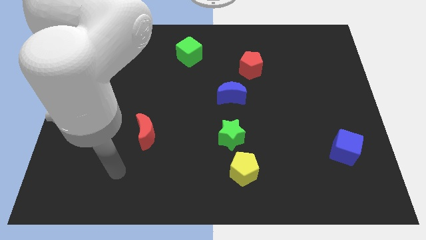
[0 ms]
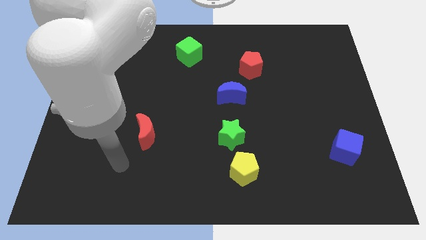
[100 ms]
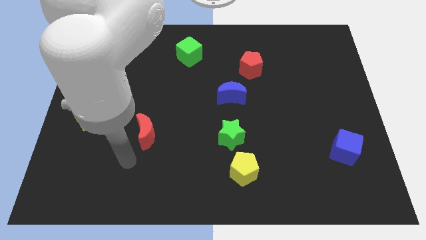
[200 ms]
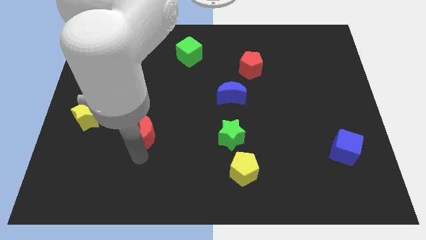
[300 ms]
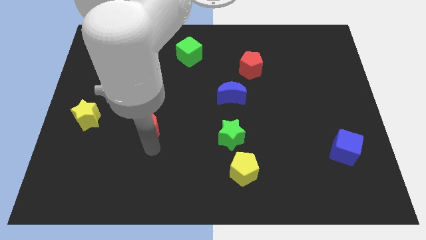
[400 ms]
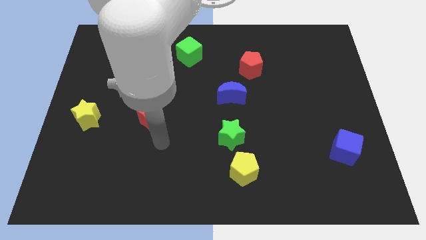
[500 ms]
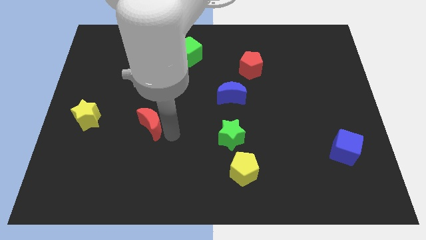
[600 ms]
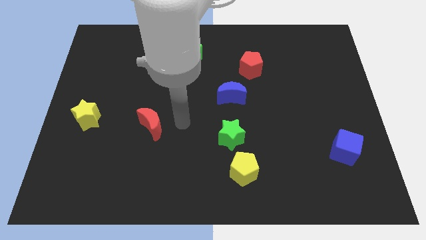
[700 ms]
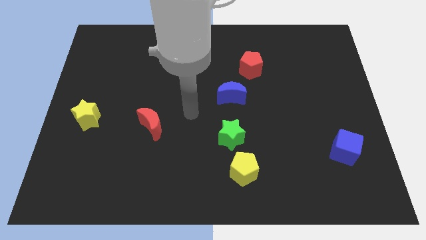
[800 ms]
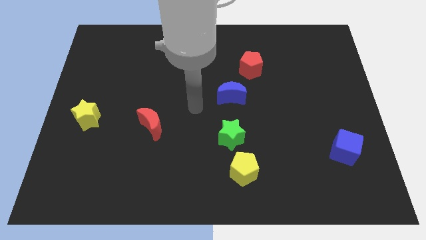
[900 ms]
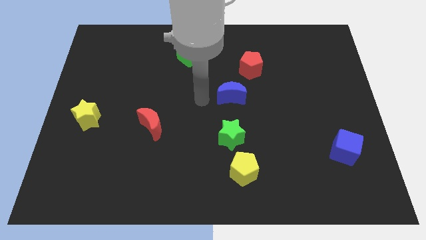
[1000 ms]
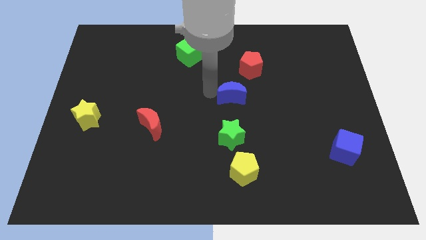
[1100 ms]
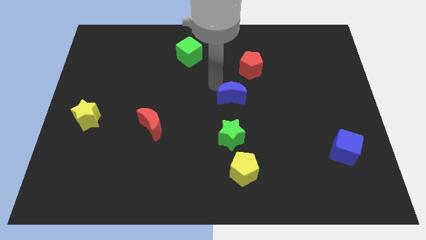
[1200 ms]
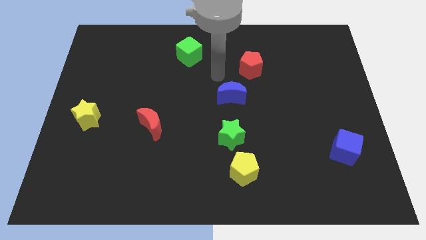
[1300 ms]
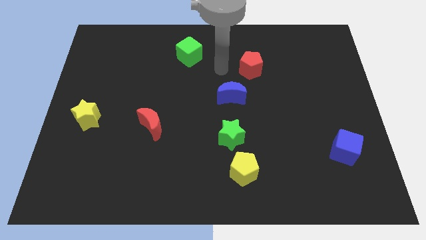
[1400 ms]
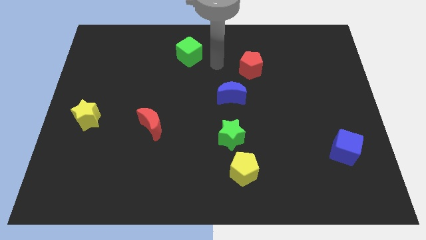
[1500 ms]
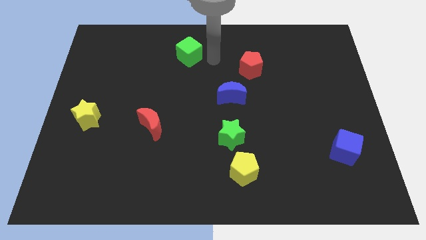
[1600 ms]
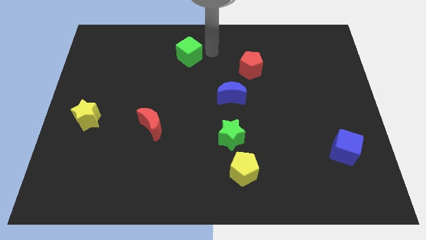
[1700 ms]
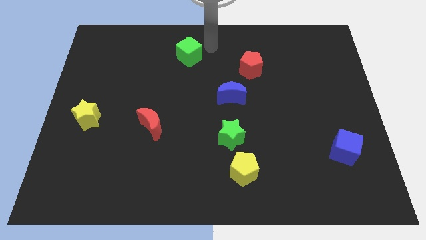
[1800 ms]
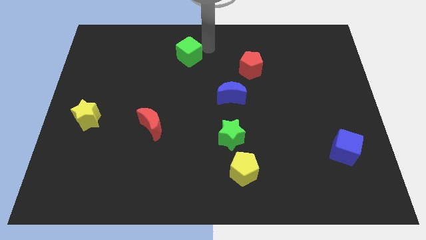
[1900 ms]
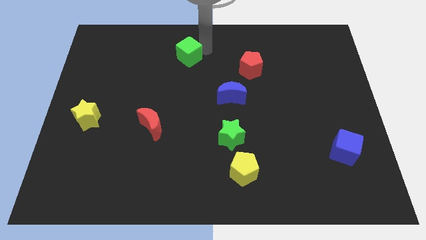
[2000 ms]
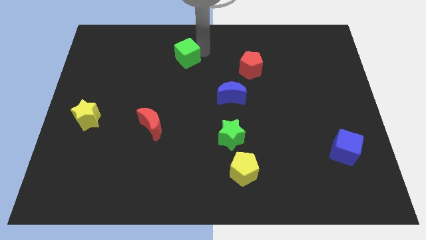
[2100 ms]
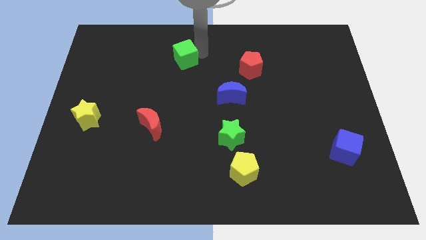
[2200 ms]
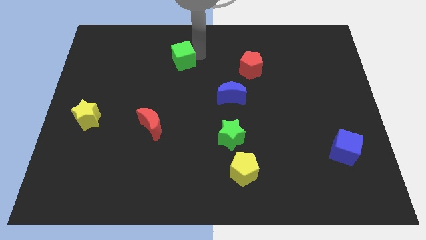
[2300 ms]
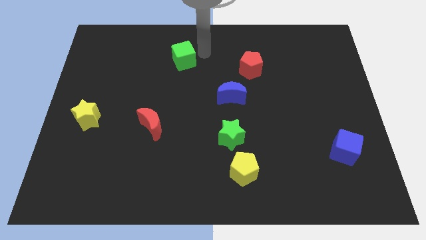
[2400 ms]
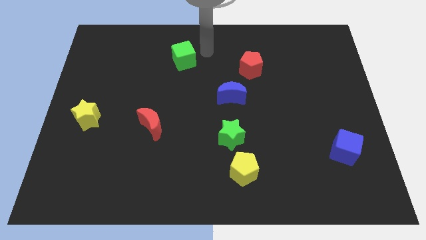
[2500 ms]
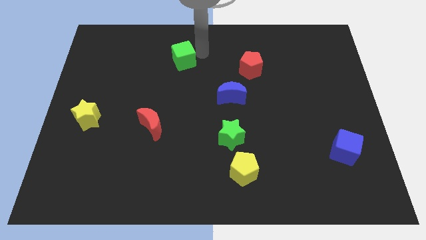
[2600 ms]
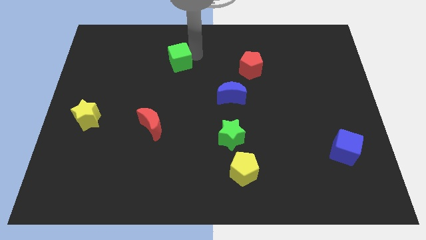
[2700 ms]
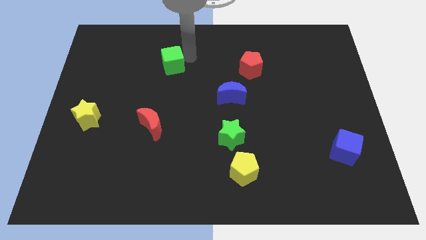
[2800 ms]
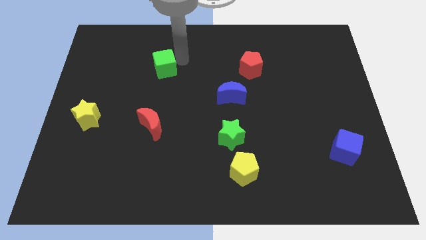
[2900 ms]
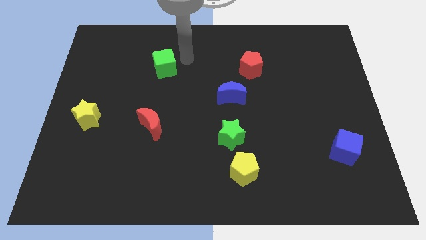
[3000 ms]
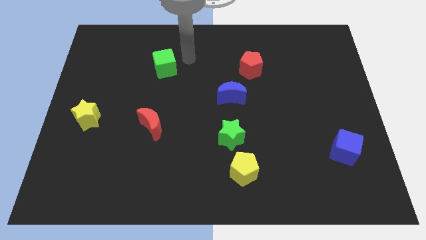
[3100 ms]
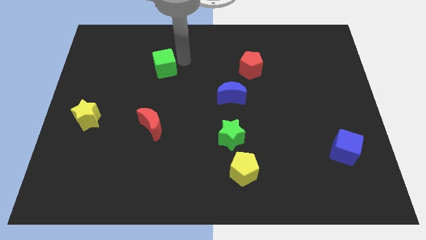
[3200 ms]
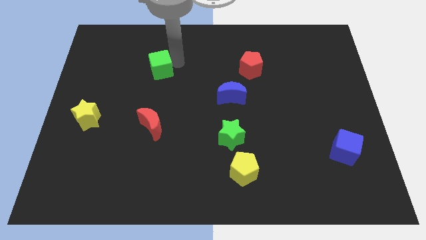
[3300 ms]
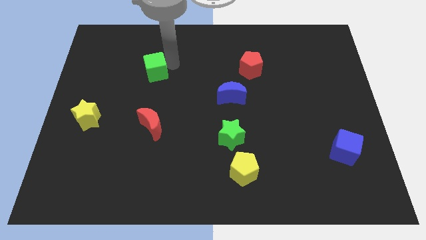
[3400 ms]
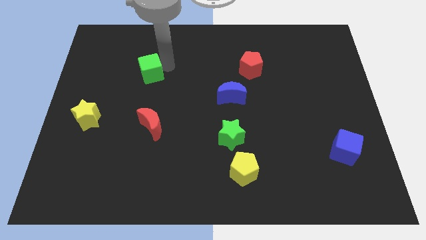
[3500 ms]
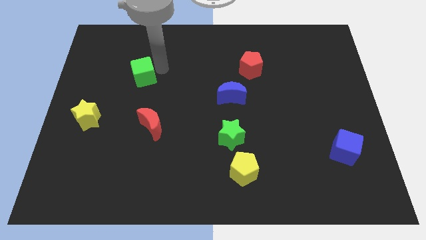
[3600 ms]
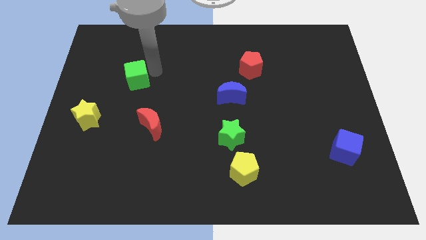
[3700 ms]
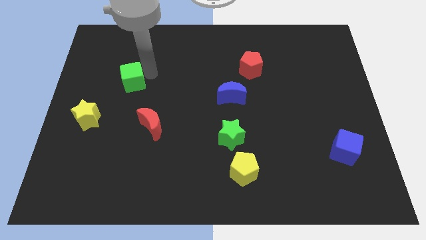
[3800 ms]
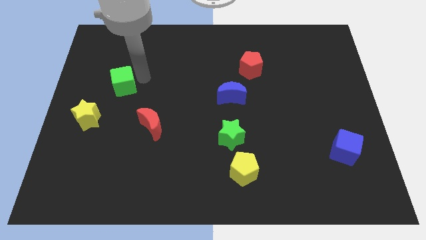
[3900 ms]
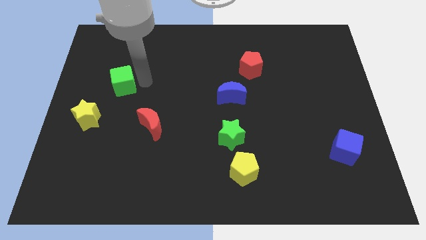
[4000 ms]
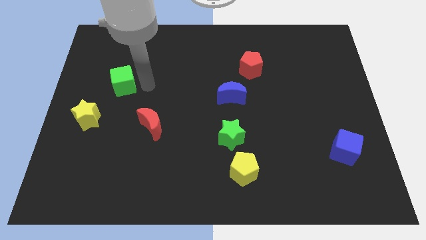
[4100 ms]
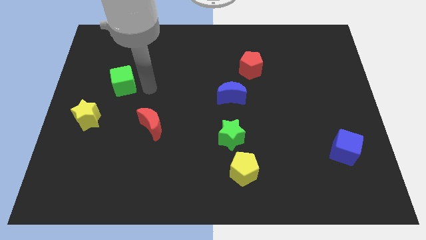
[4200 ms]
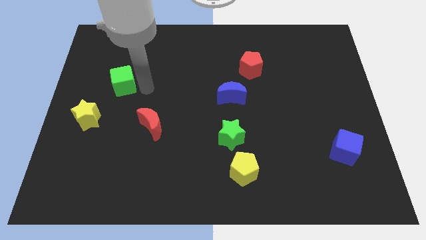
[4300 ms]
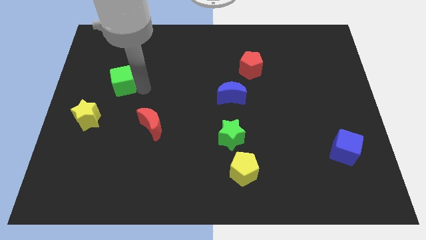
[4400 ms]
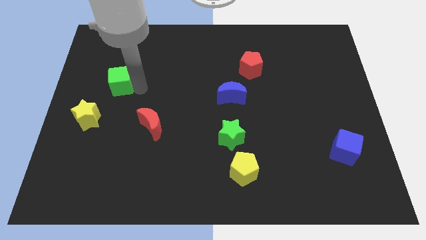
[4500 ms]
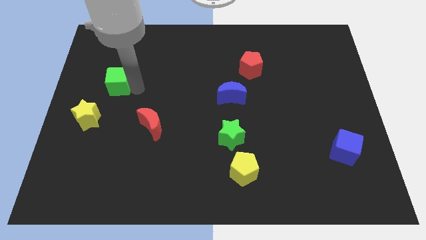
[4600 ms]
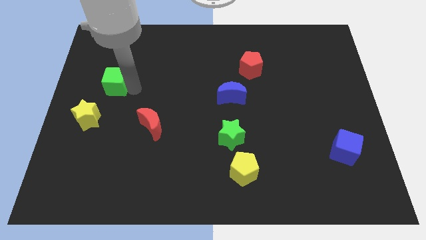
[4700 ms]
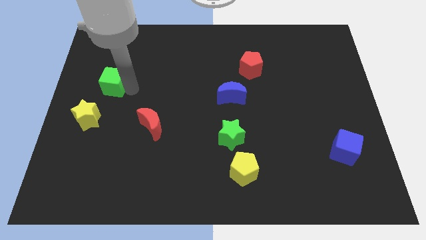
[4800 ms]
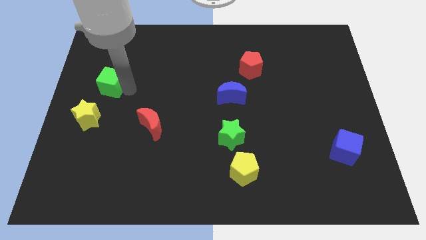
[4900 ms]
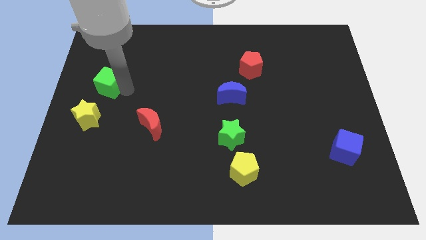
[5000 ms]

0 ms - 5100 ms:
push the green cube to the left side of the board

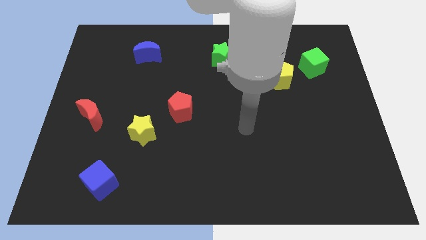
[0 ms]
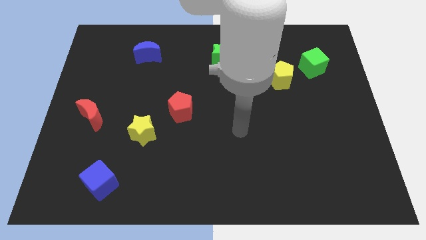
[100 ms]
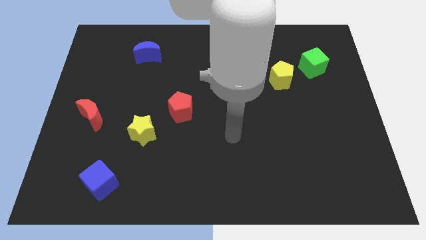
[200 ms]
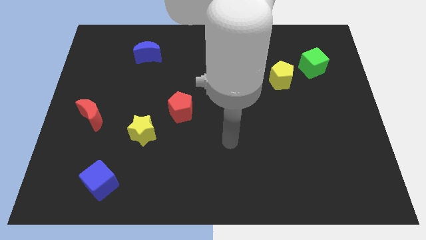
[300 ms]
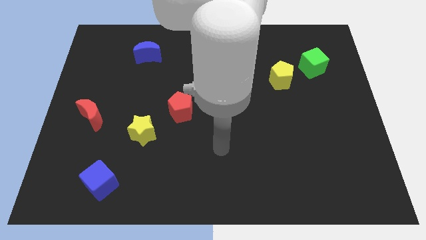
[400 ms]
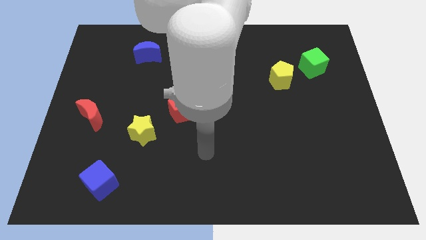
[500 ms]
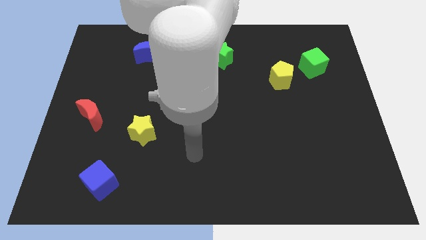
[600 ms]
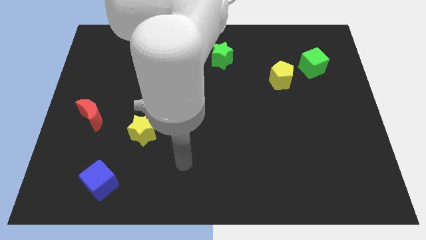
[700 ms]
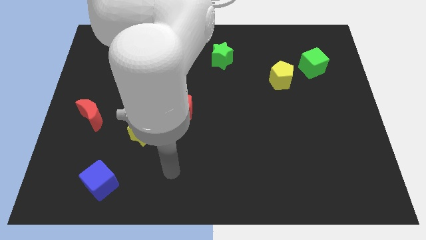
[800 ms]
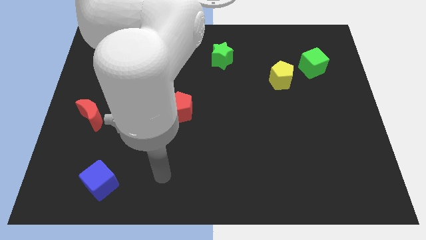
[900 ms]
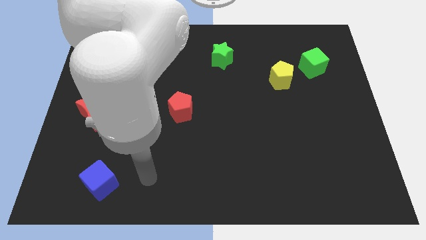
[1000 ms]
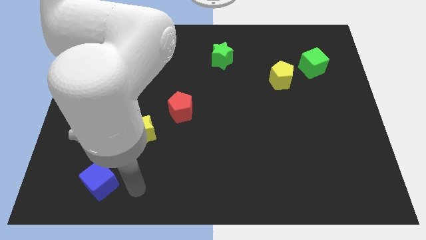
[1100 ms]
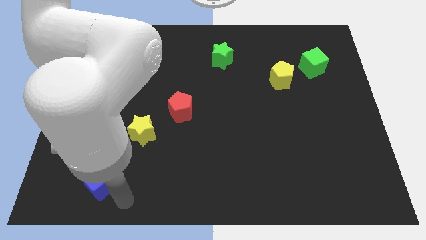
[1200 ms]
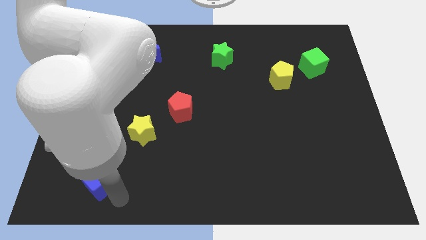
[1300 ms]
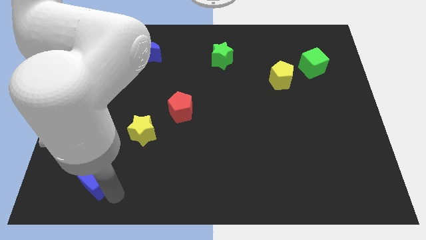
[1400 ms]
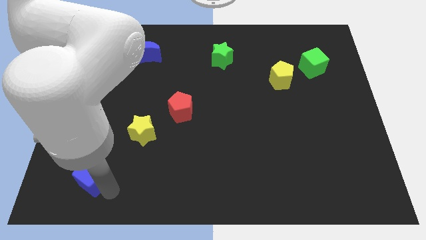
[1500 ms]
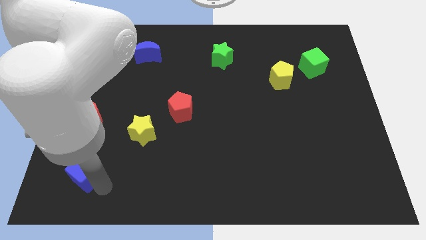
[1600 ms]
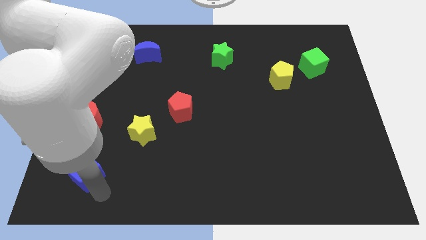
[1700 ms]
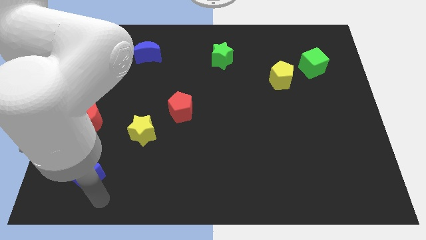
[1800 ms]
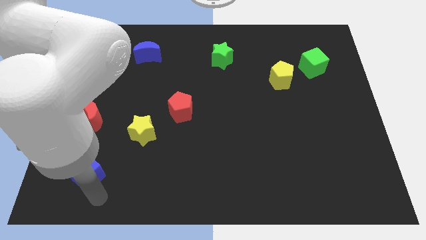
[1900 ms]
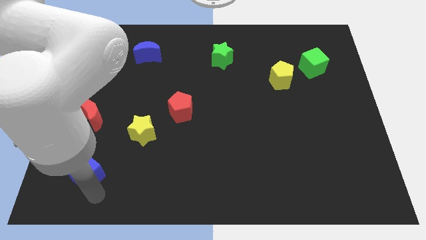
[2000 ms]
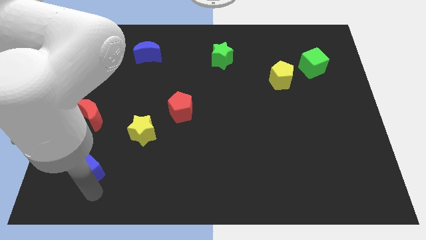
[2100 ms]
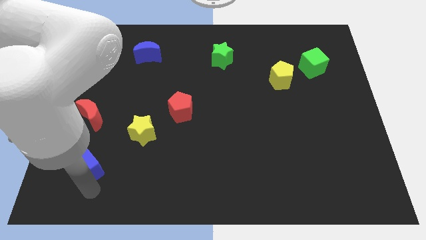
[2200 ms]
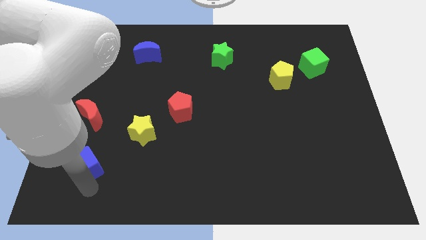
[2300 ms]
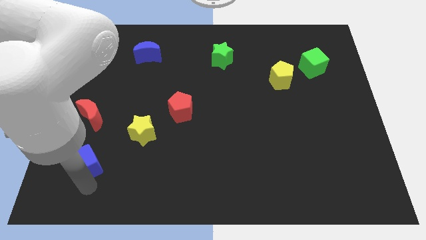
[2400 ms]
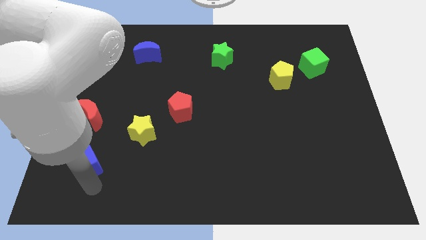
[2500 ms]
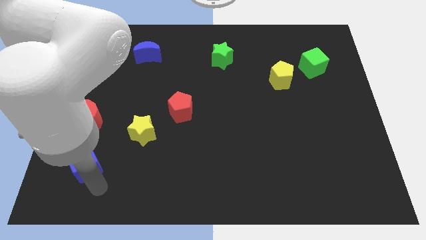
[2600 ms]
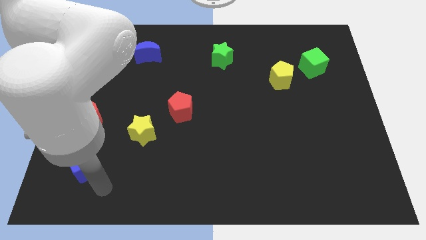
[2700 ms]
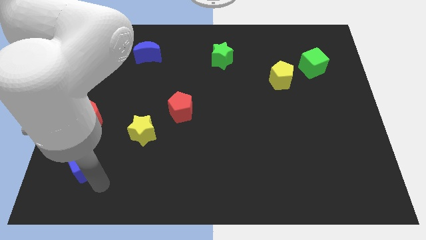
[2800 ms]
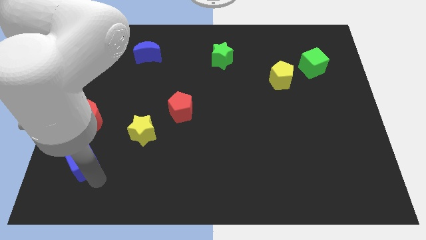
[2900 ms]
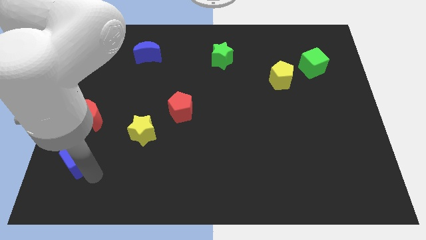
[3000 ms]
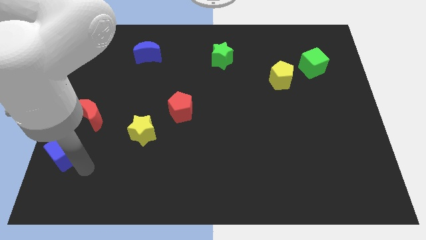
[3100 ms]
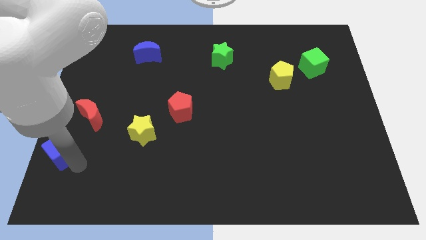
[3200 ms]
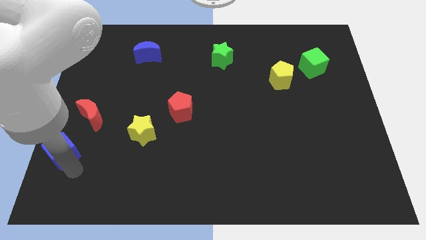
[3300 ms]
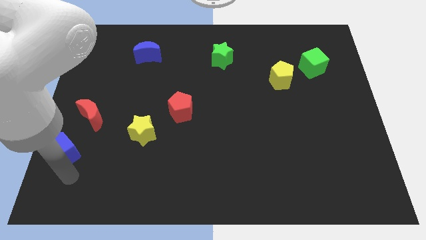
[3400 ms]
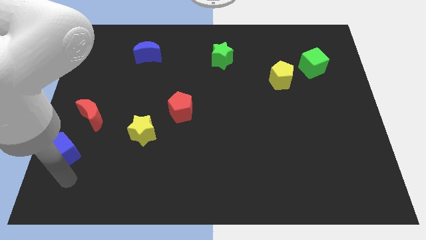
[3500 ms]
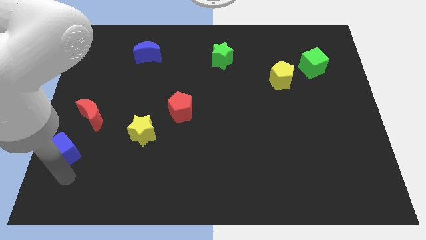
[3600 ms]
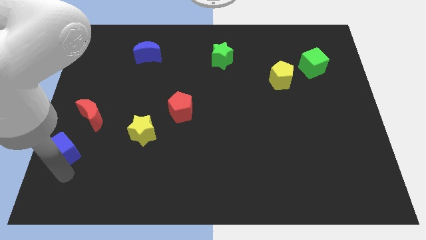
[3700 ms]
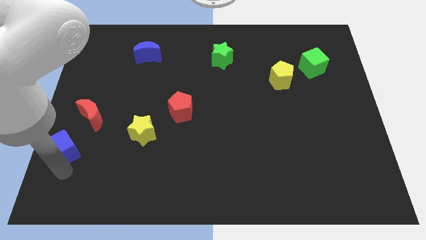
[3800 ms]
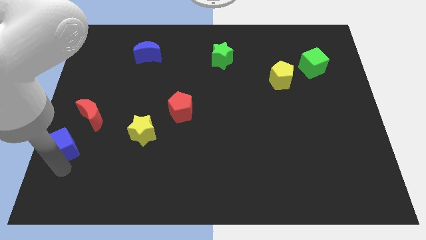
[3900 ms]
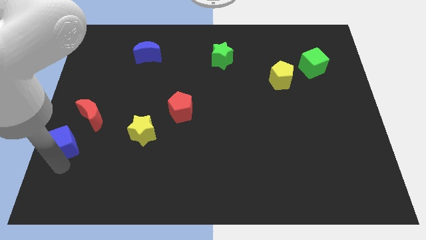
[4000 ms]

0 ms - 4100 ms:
put the blue cube to the center left
